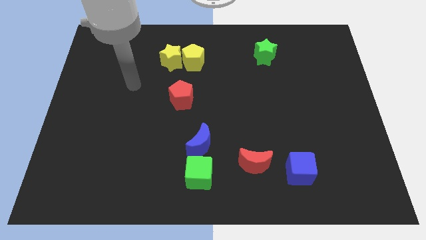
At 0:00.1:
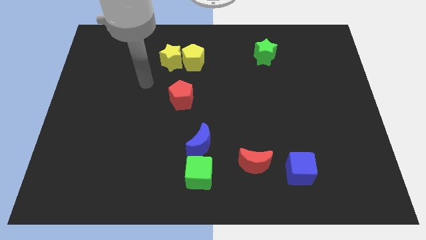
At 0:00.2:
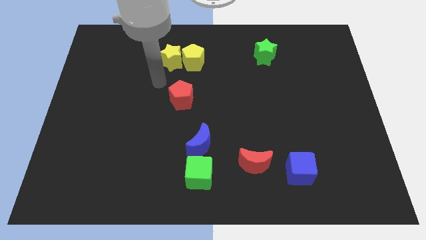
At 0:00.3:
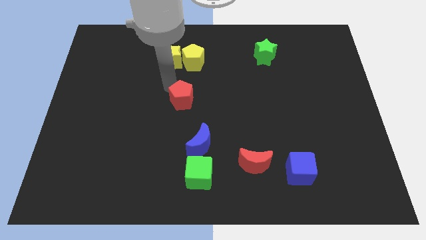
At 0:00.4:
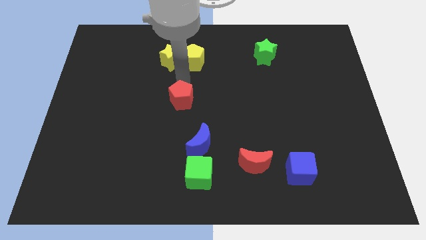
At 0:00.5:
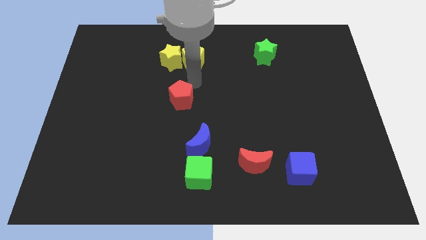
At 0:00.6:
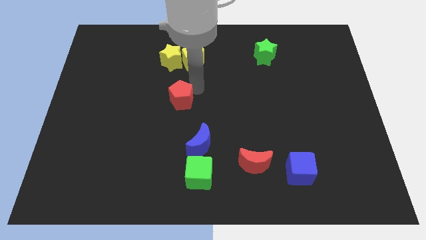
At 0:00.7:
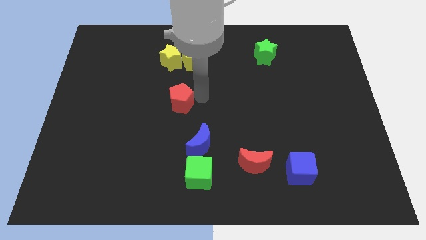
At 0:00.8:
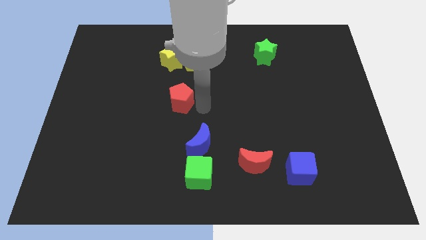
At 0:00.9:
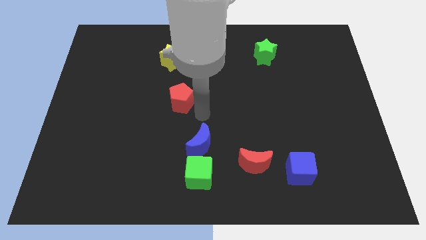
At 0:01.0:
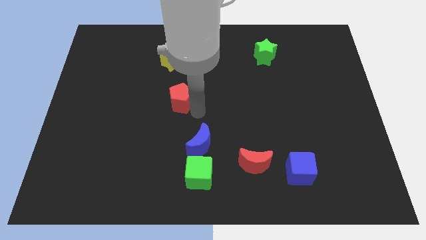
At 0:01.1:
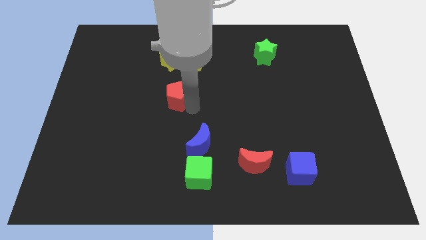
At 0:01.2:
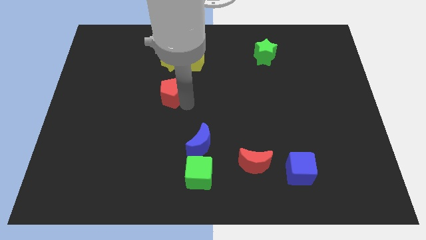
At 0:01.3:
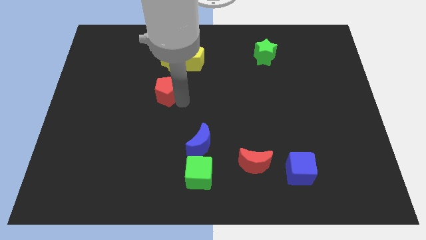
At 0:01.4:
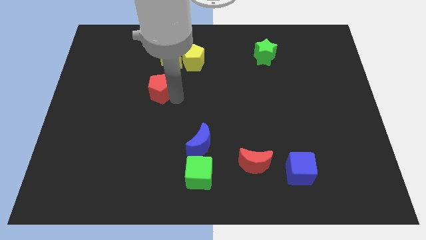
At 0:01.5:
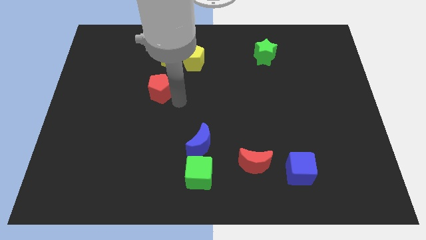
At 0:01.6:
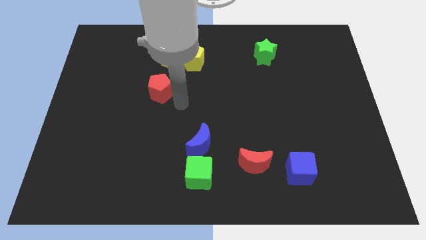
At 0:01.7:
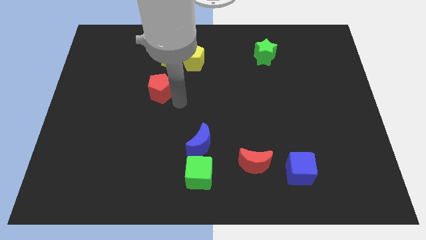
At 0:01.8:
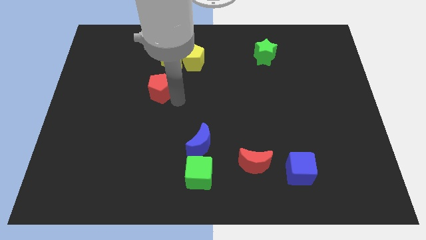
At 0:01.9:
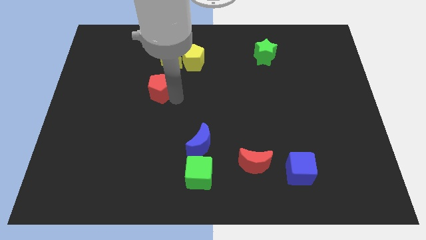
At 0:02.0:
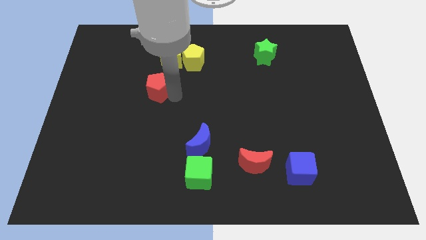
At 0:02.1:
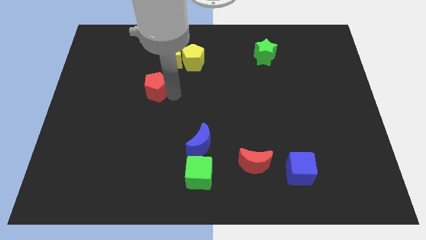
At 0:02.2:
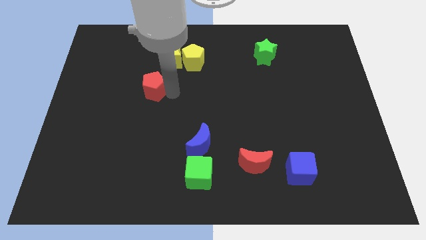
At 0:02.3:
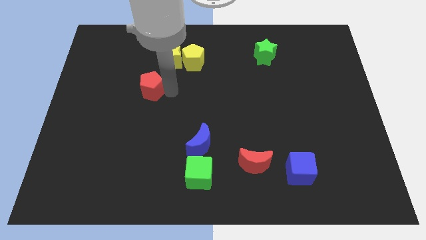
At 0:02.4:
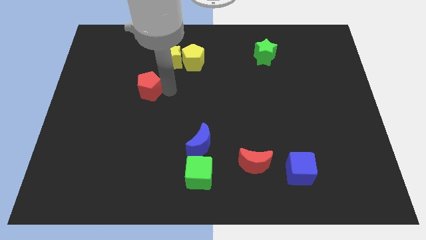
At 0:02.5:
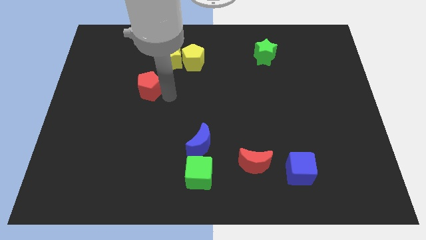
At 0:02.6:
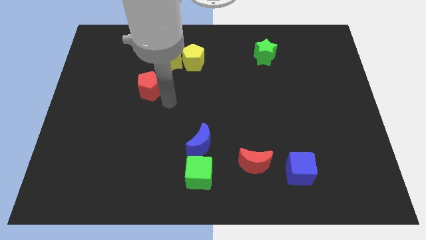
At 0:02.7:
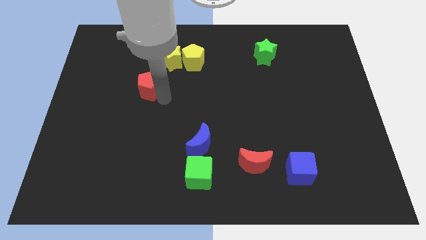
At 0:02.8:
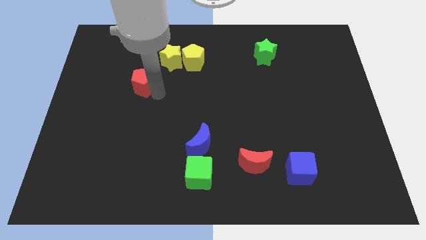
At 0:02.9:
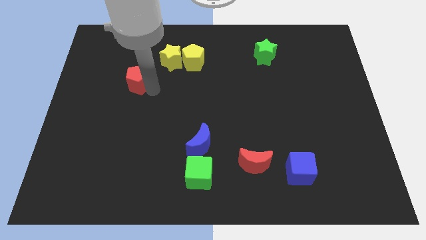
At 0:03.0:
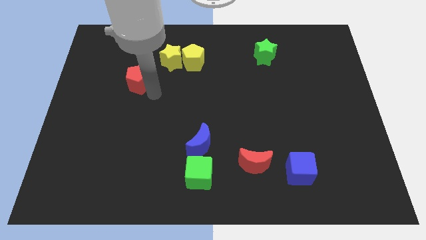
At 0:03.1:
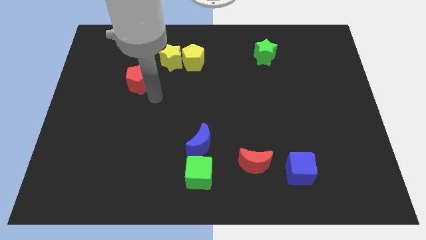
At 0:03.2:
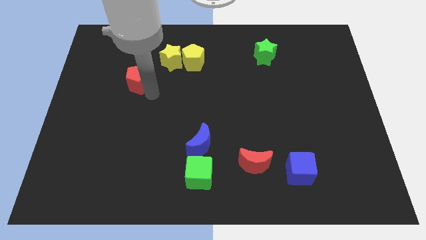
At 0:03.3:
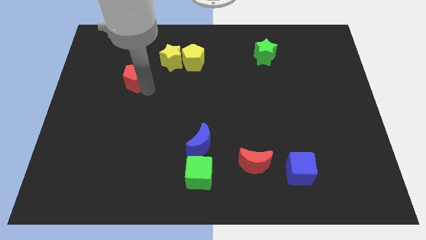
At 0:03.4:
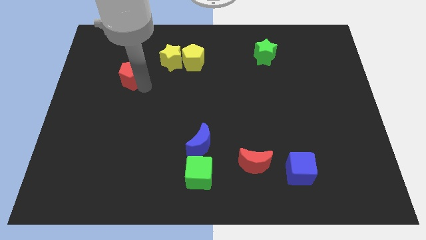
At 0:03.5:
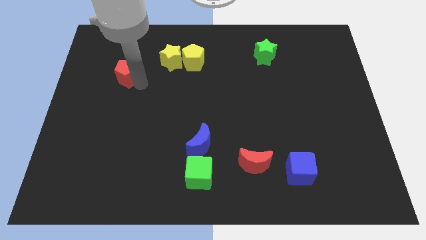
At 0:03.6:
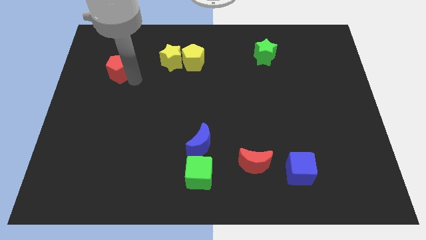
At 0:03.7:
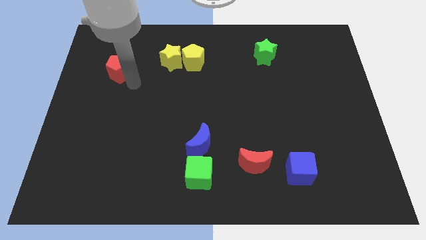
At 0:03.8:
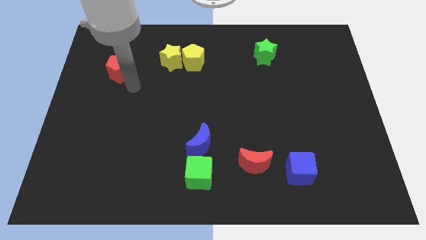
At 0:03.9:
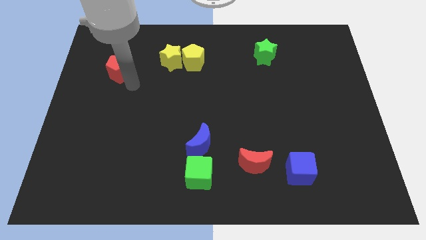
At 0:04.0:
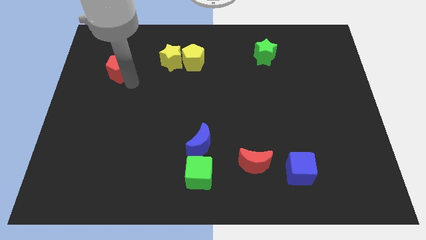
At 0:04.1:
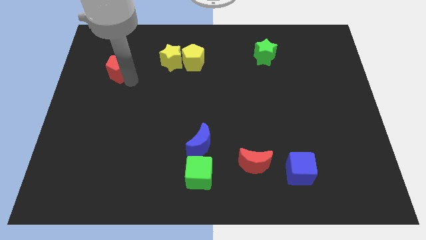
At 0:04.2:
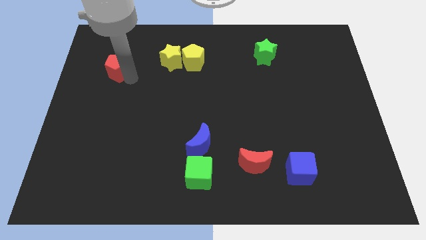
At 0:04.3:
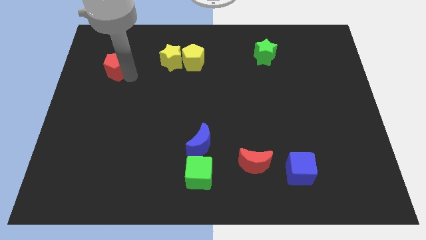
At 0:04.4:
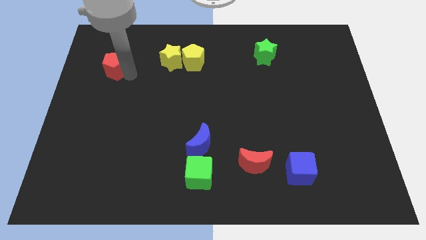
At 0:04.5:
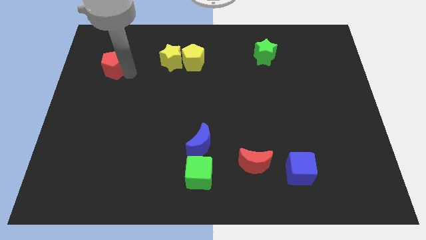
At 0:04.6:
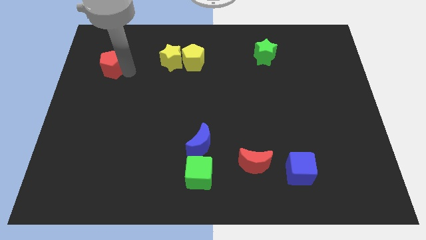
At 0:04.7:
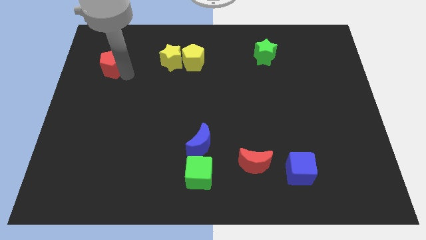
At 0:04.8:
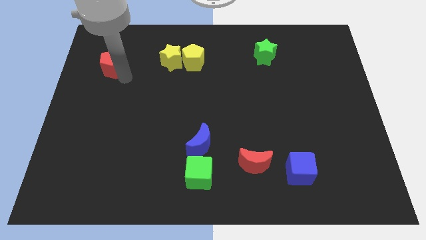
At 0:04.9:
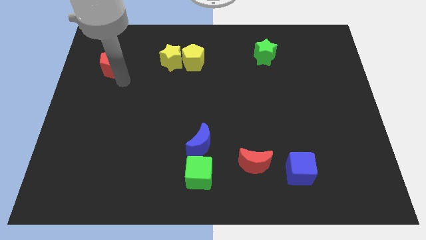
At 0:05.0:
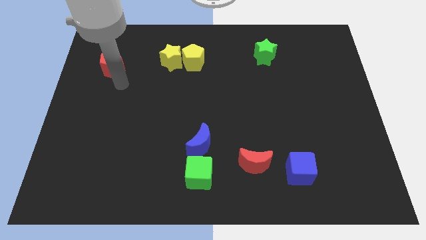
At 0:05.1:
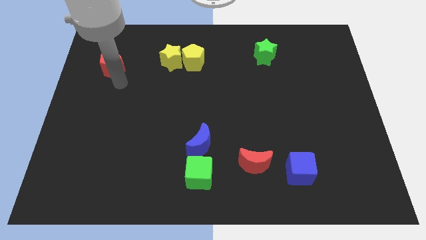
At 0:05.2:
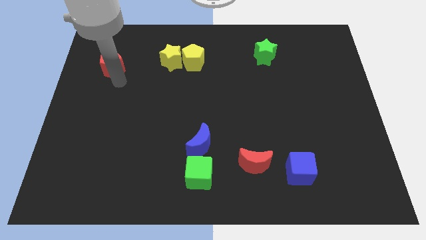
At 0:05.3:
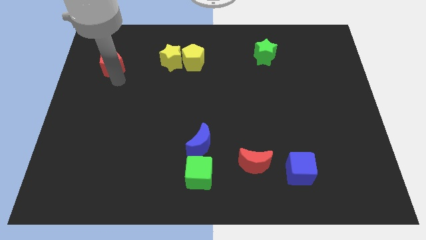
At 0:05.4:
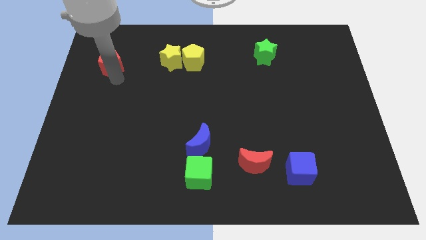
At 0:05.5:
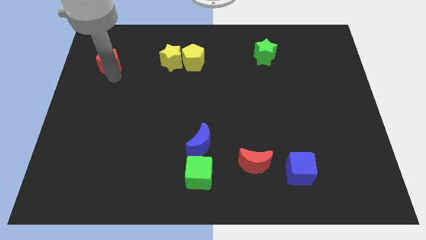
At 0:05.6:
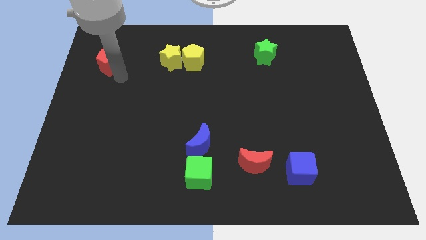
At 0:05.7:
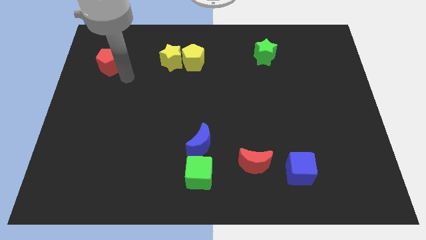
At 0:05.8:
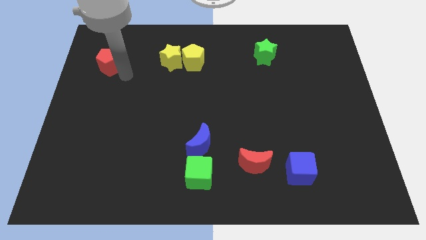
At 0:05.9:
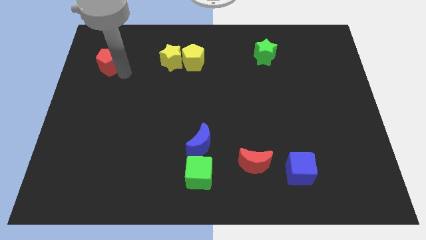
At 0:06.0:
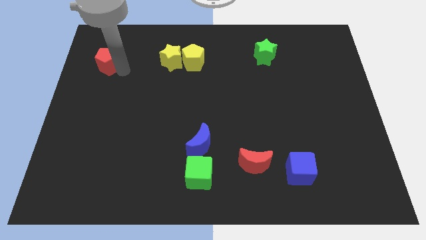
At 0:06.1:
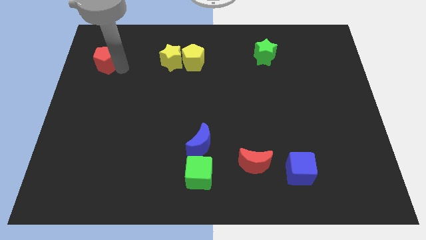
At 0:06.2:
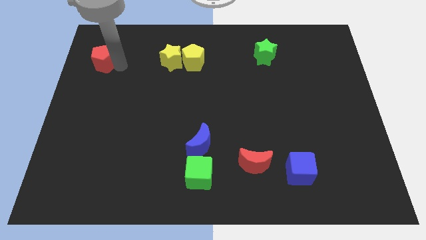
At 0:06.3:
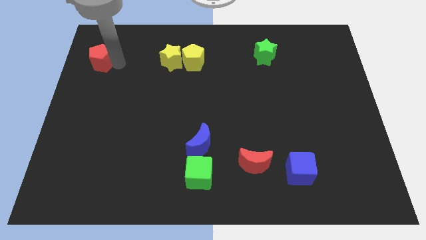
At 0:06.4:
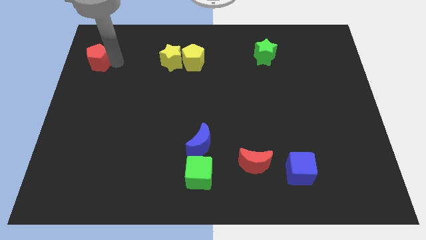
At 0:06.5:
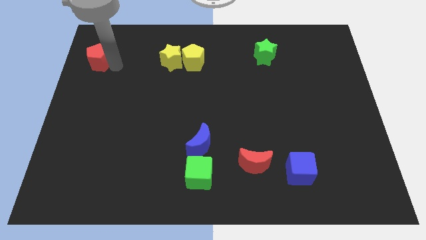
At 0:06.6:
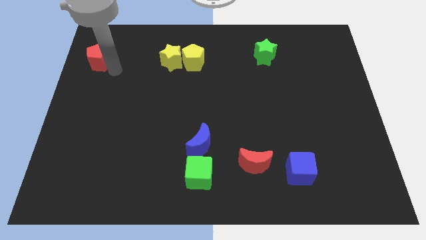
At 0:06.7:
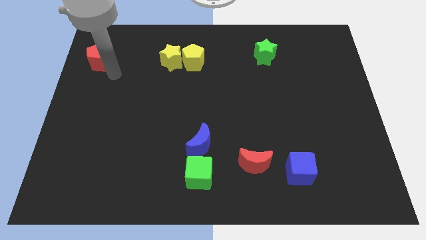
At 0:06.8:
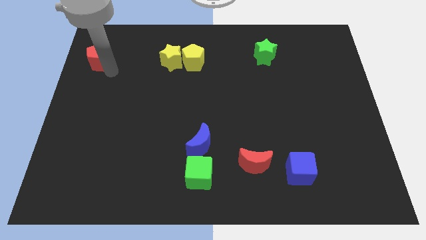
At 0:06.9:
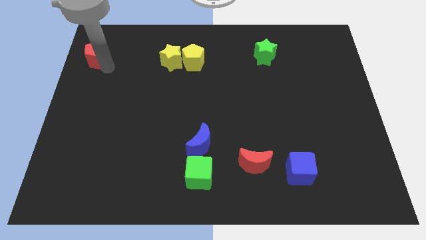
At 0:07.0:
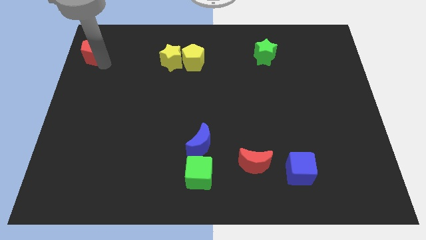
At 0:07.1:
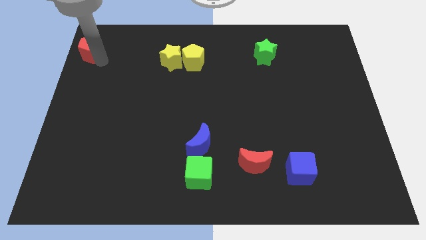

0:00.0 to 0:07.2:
push the red pentagon to the top left corner
